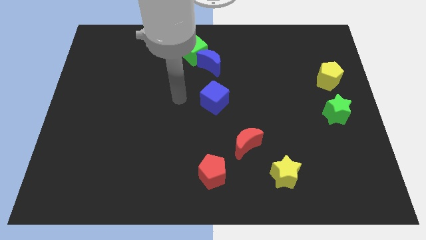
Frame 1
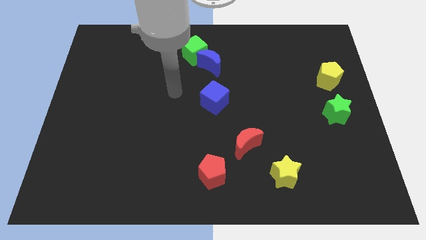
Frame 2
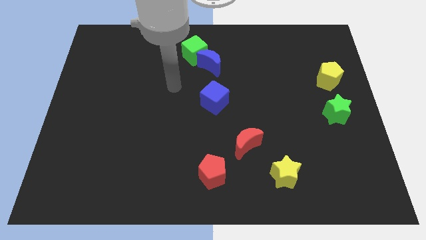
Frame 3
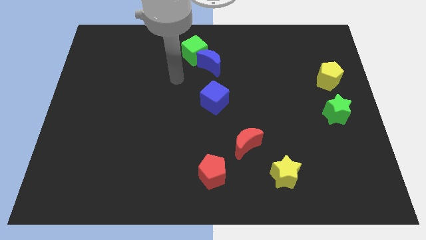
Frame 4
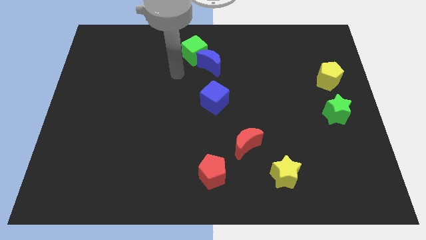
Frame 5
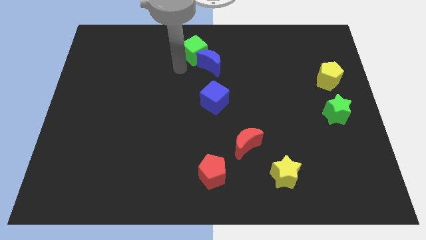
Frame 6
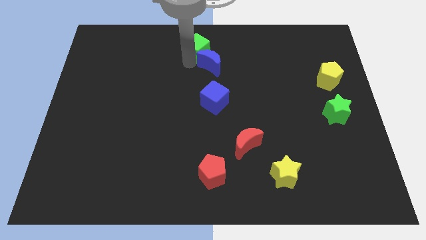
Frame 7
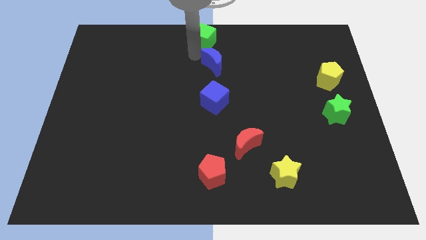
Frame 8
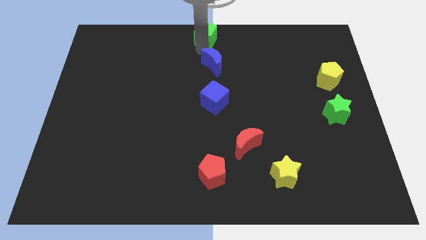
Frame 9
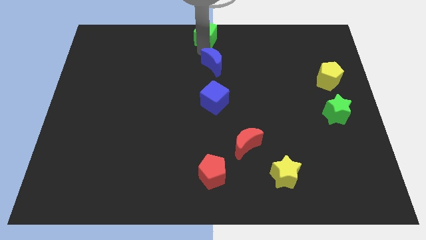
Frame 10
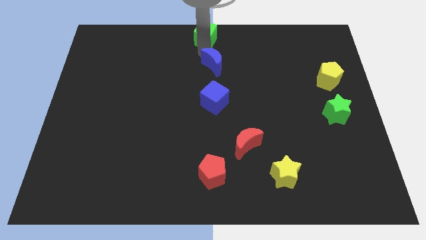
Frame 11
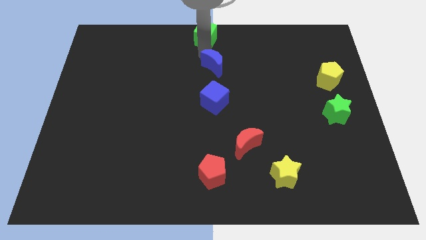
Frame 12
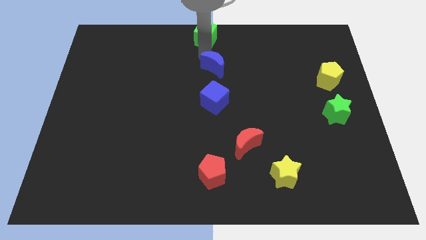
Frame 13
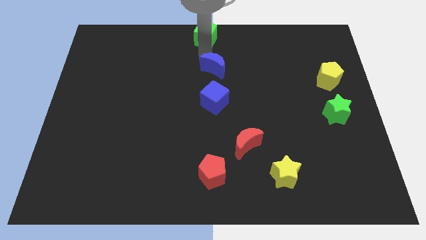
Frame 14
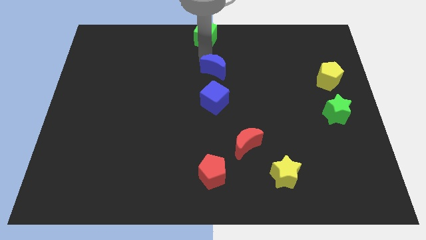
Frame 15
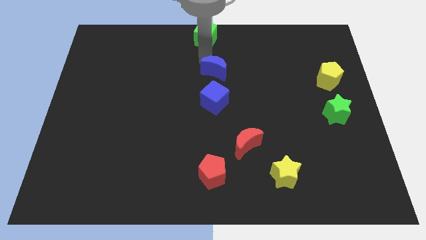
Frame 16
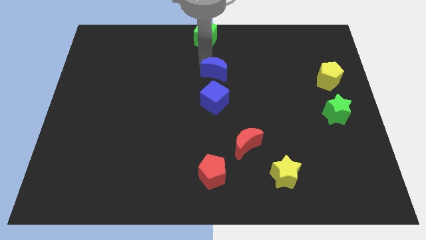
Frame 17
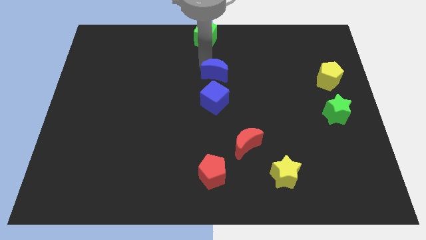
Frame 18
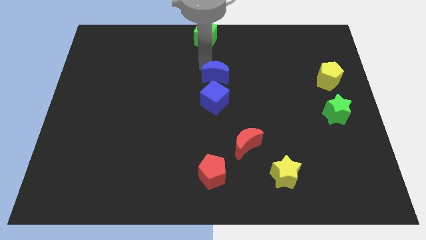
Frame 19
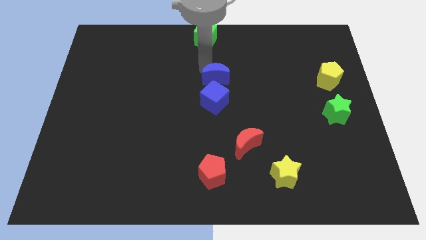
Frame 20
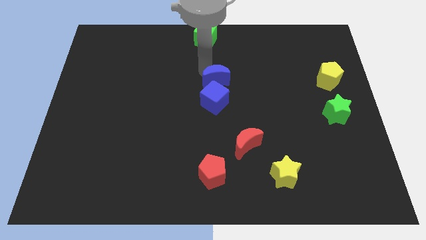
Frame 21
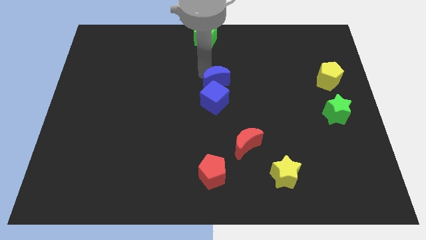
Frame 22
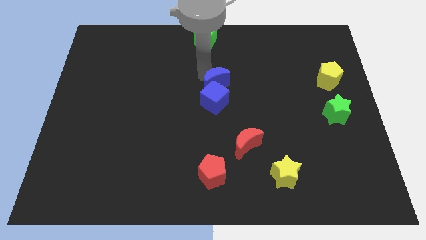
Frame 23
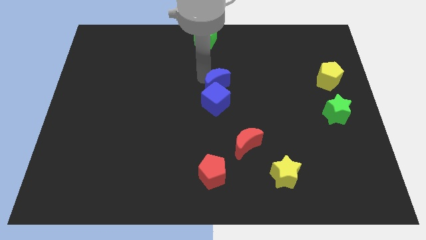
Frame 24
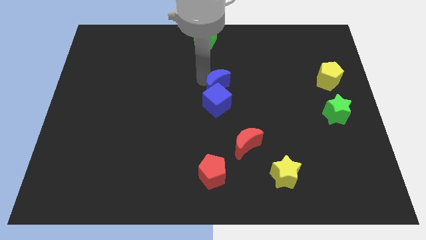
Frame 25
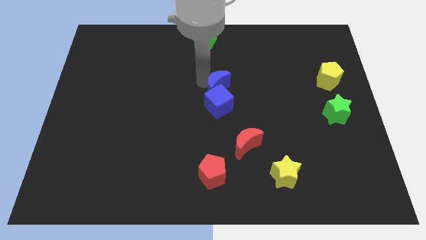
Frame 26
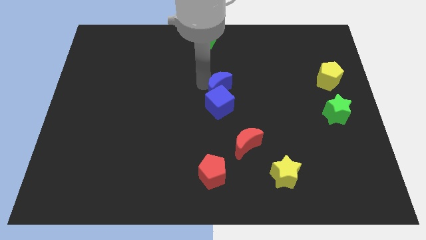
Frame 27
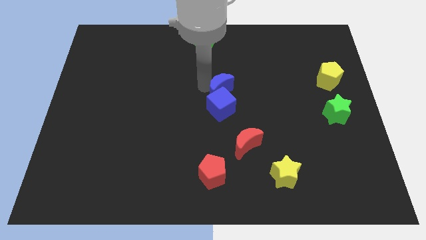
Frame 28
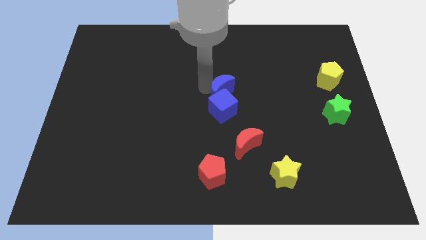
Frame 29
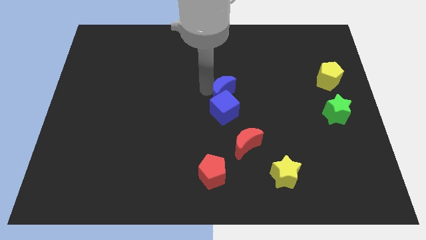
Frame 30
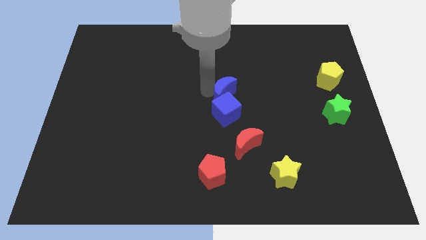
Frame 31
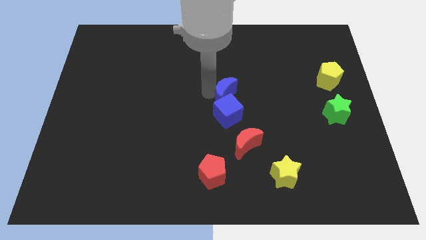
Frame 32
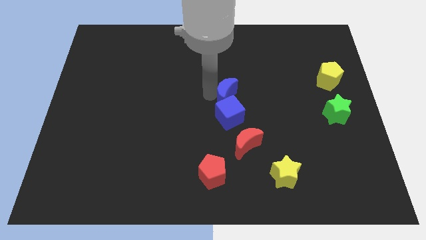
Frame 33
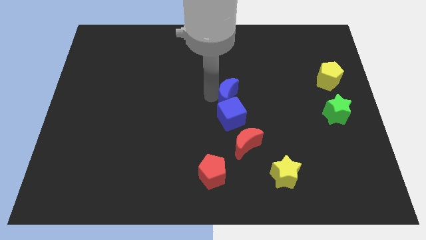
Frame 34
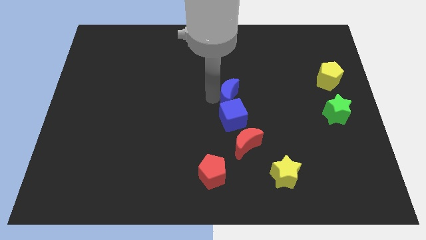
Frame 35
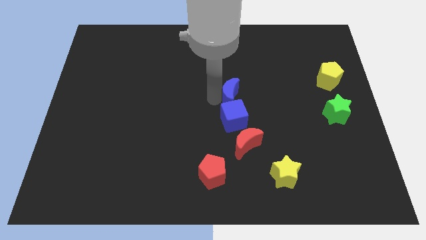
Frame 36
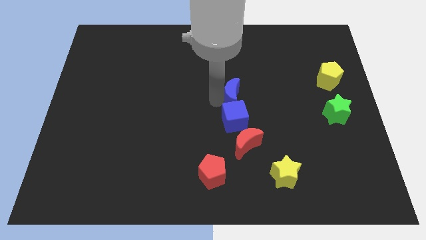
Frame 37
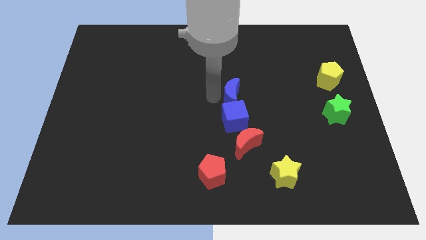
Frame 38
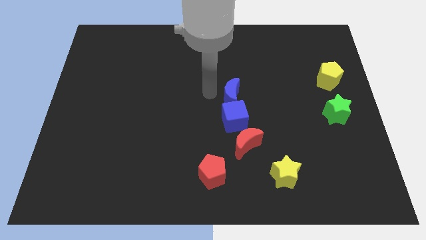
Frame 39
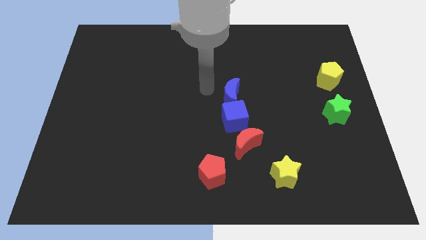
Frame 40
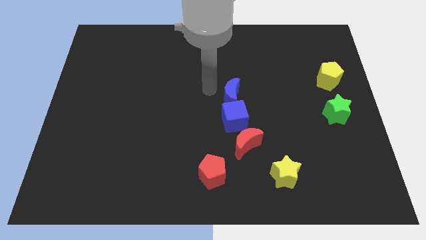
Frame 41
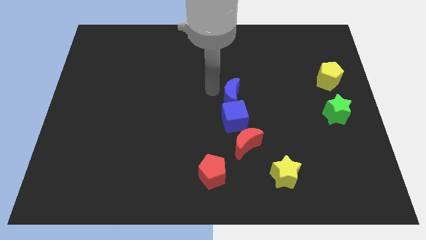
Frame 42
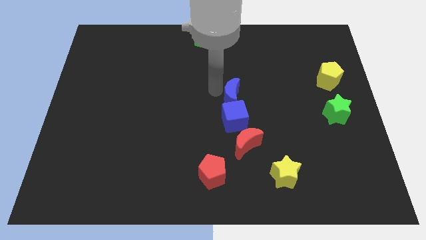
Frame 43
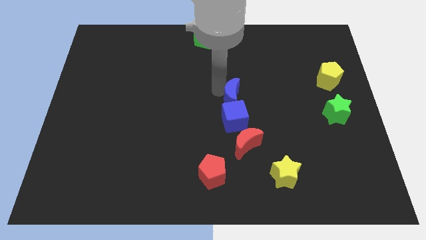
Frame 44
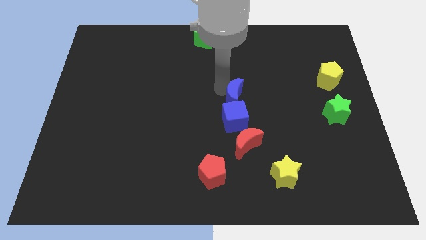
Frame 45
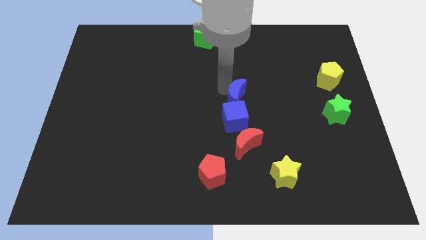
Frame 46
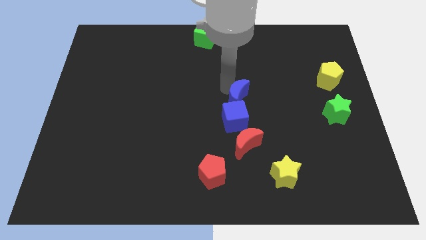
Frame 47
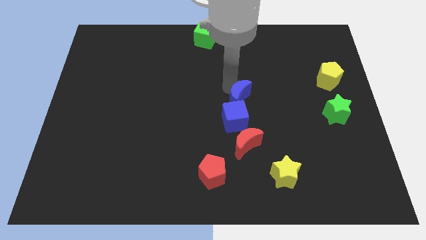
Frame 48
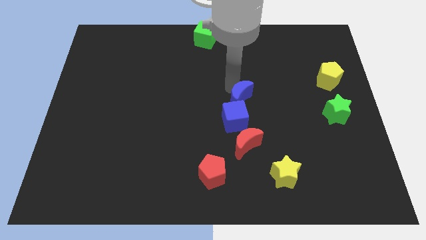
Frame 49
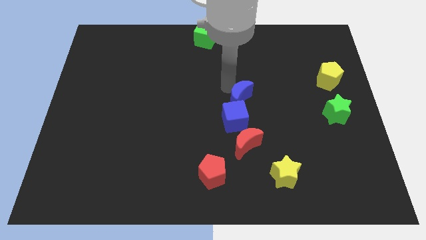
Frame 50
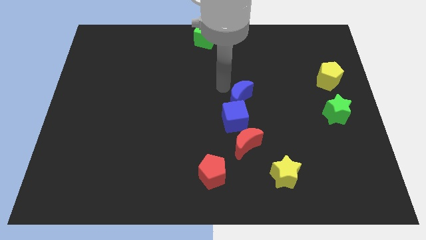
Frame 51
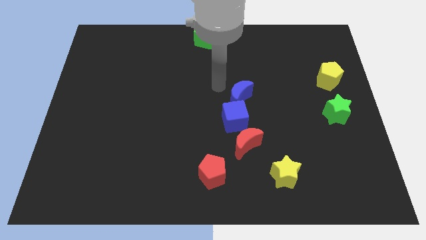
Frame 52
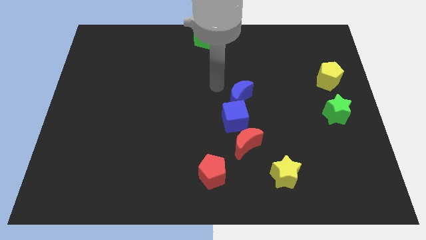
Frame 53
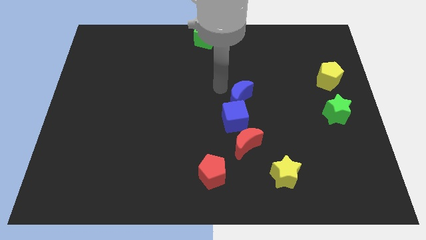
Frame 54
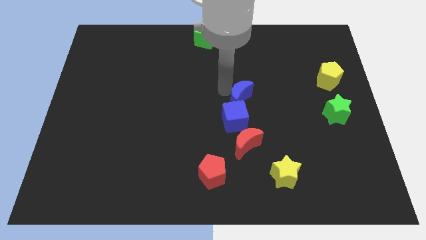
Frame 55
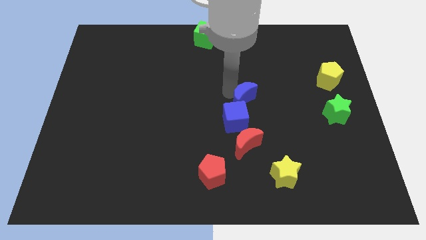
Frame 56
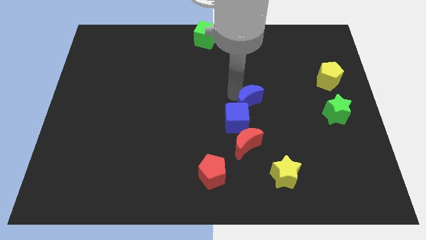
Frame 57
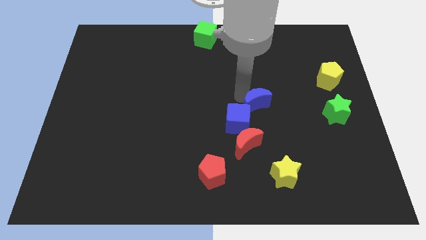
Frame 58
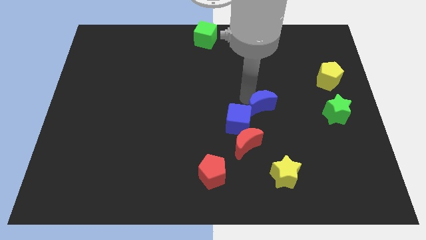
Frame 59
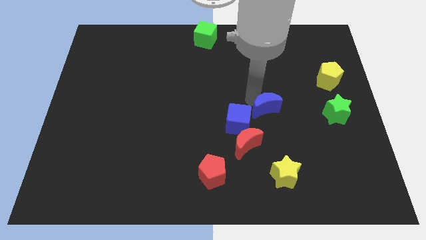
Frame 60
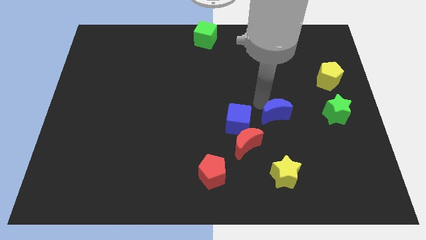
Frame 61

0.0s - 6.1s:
push the blue moon down and right diagonally

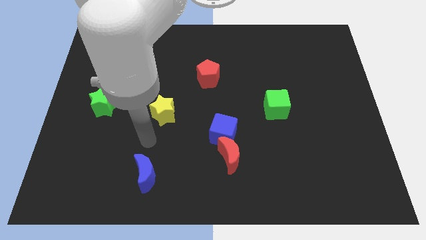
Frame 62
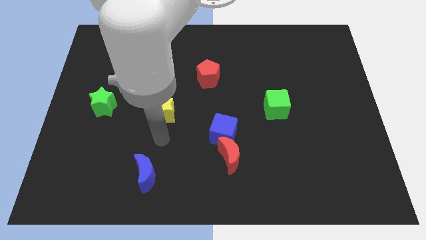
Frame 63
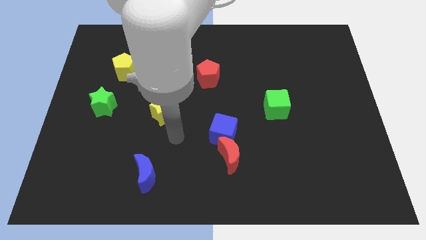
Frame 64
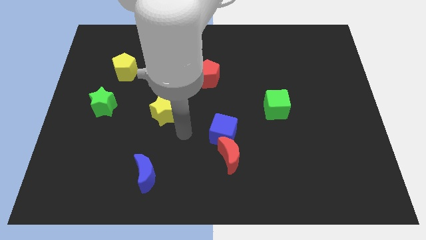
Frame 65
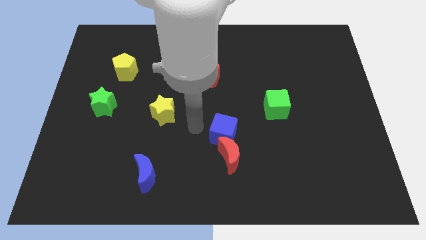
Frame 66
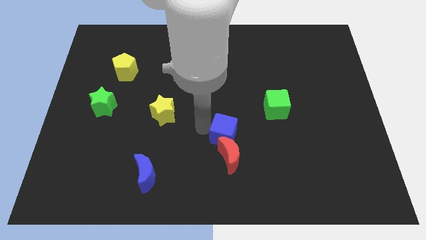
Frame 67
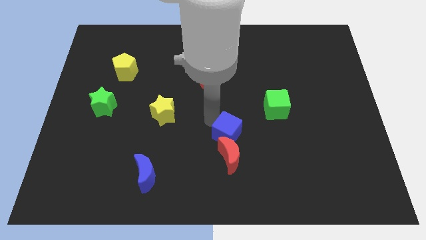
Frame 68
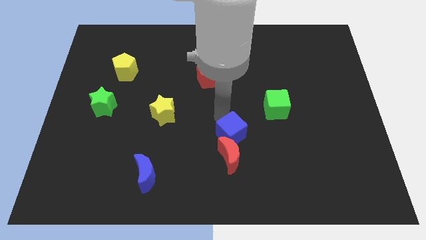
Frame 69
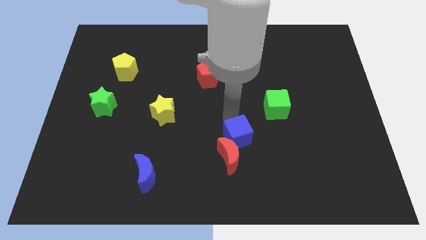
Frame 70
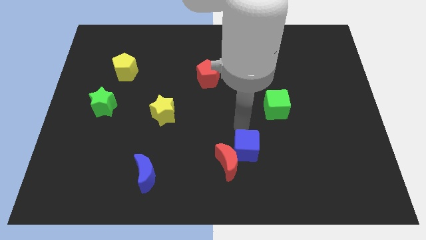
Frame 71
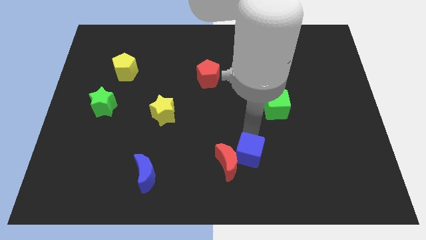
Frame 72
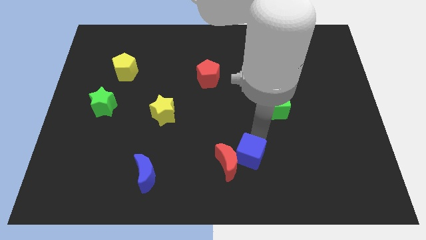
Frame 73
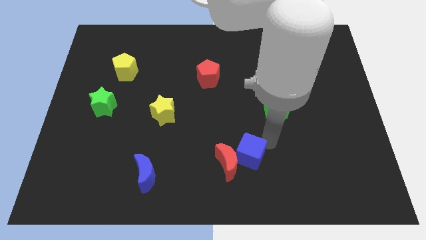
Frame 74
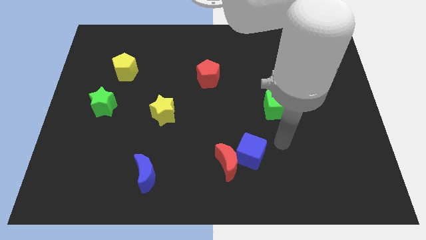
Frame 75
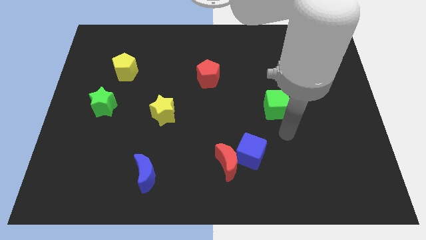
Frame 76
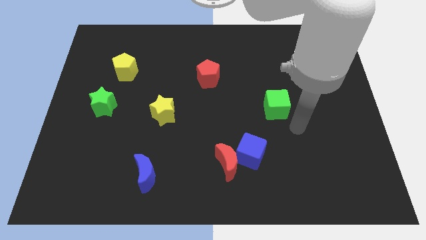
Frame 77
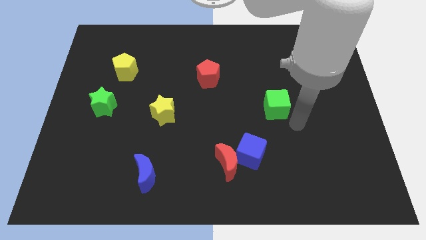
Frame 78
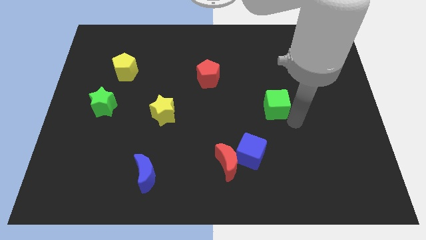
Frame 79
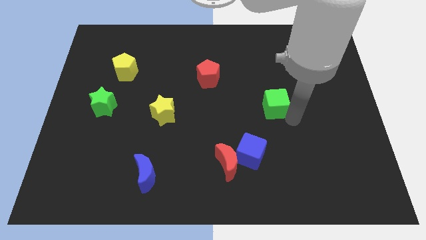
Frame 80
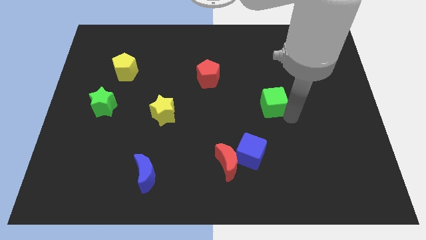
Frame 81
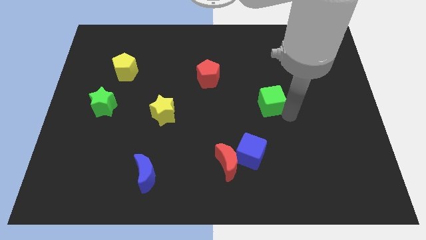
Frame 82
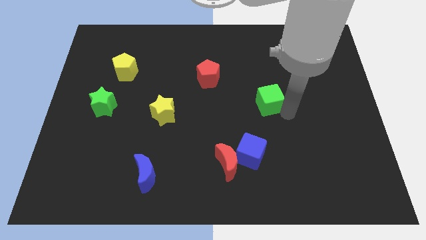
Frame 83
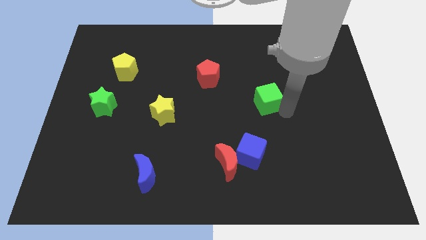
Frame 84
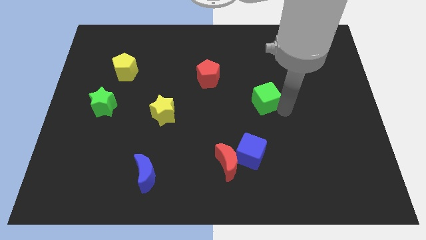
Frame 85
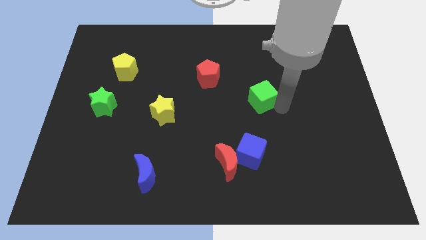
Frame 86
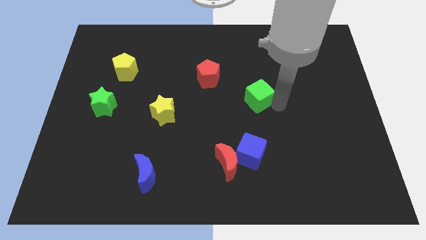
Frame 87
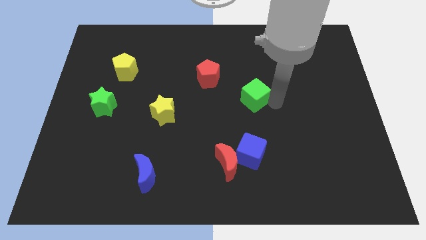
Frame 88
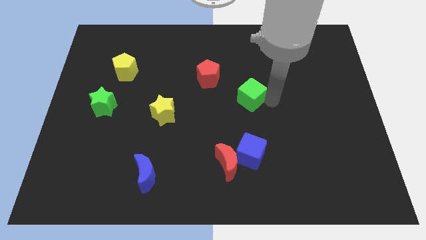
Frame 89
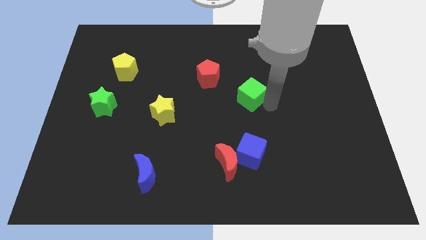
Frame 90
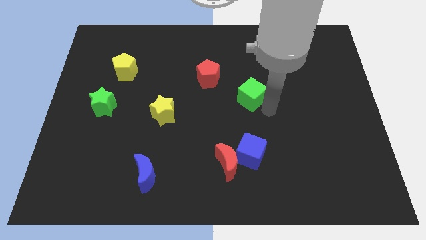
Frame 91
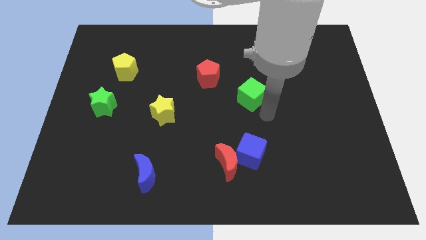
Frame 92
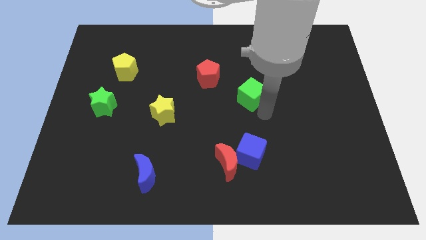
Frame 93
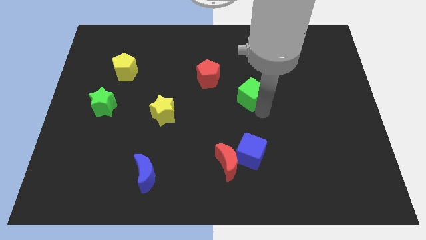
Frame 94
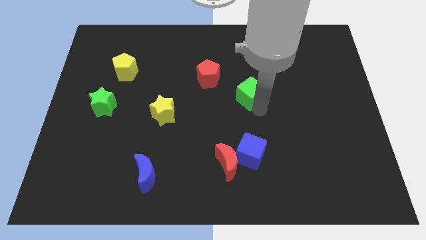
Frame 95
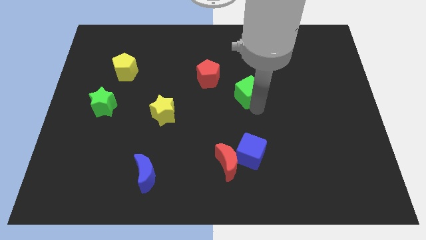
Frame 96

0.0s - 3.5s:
slightly slide the green cube diagonally upwards and left
